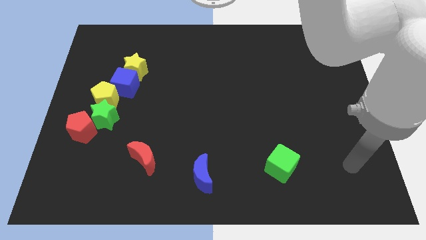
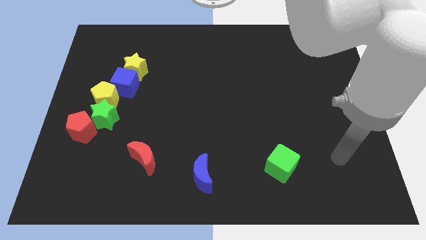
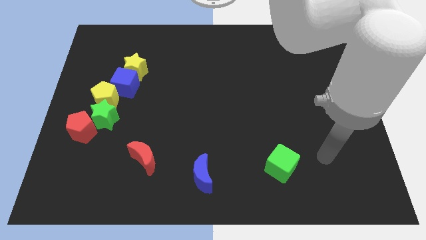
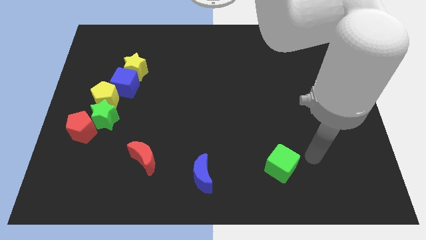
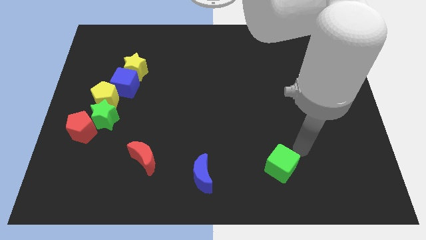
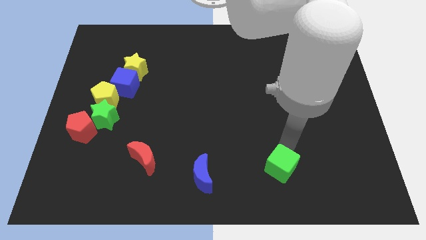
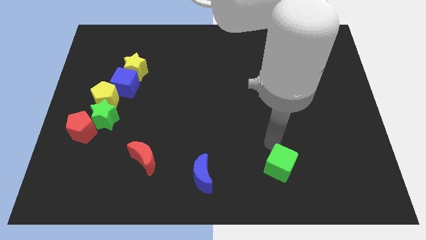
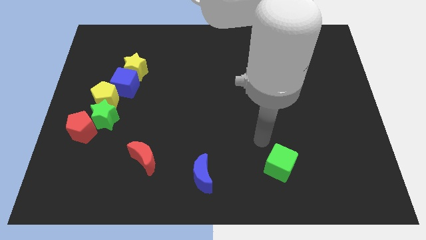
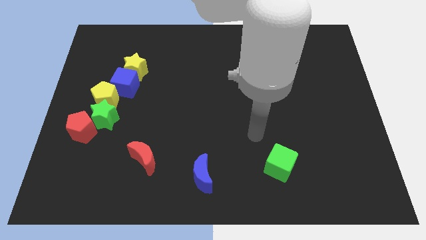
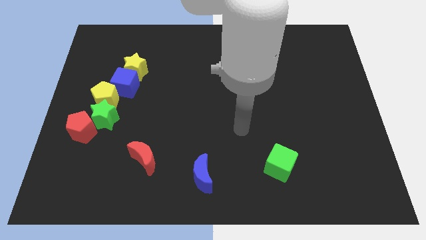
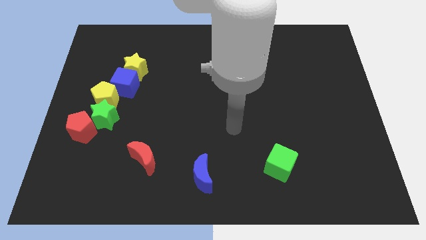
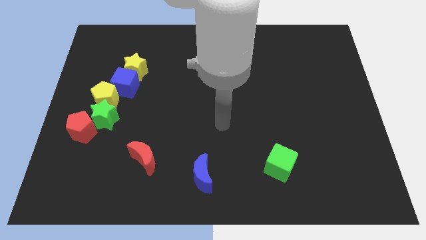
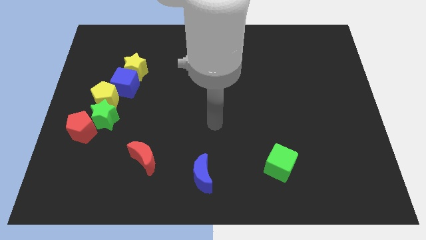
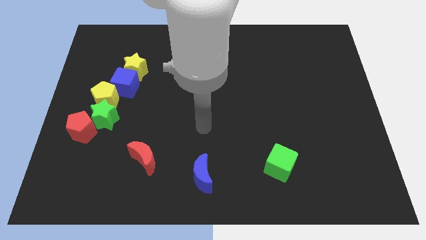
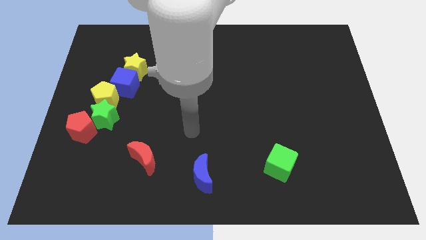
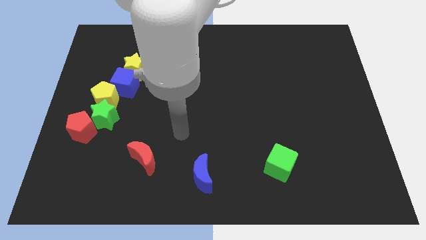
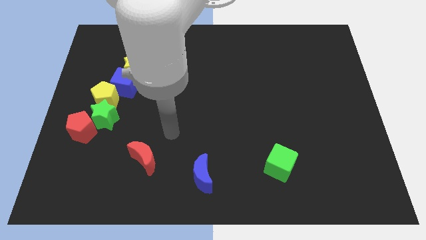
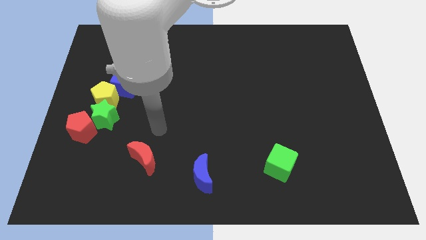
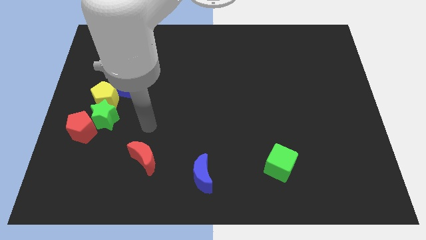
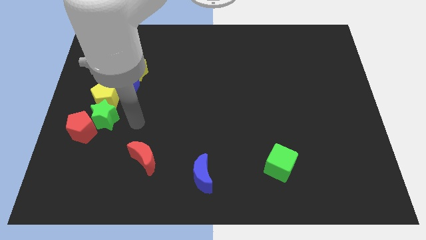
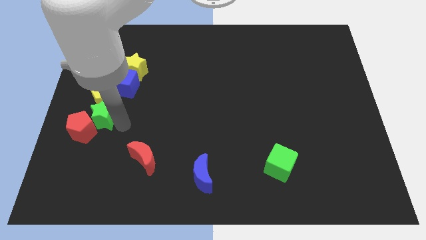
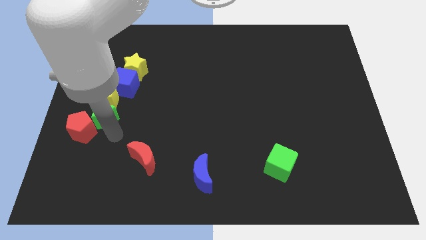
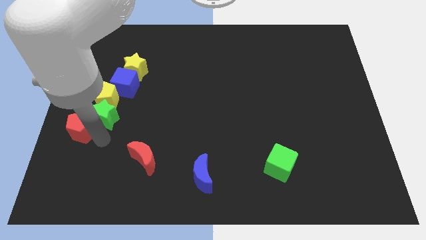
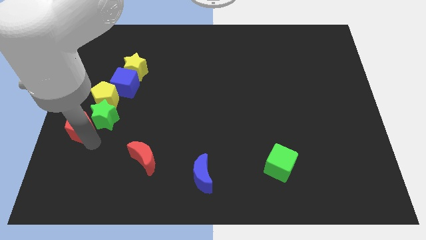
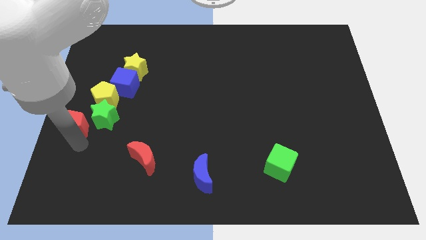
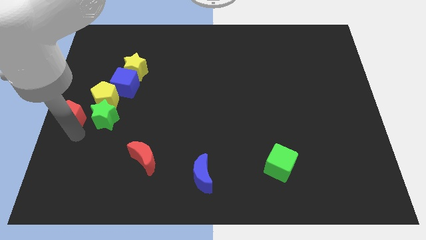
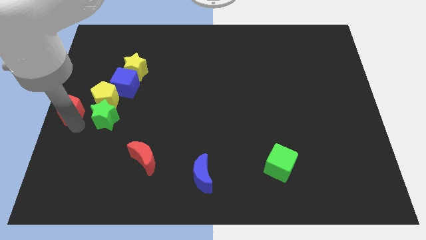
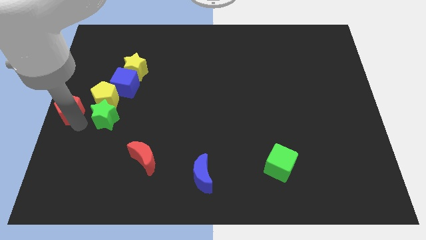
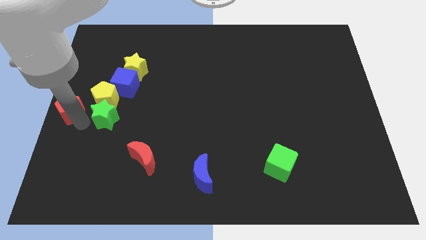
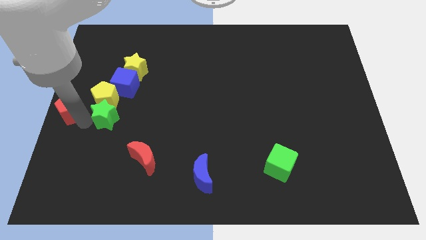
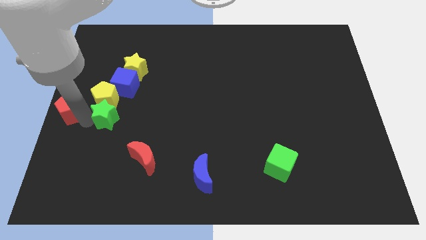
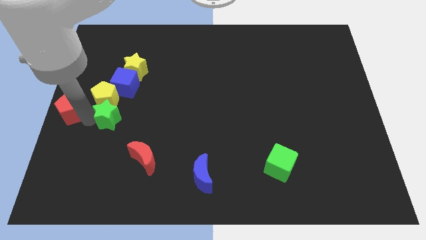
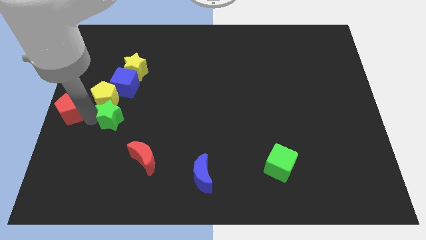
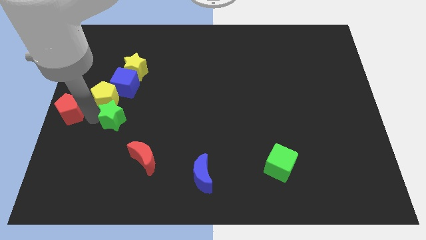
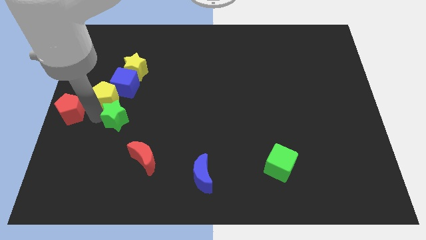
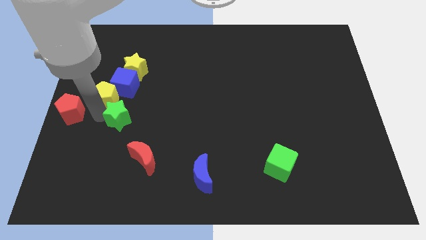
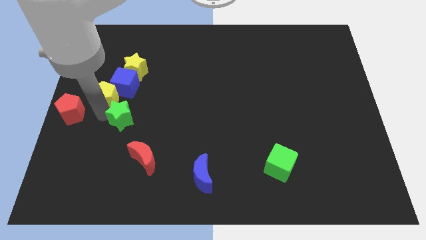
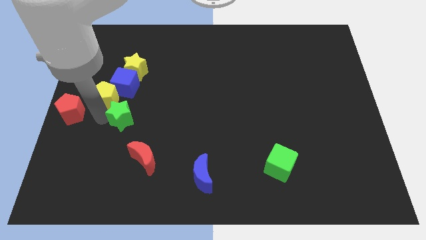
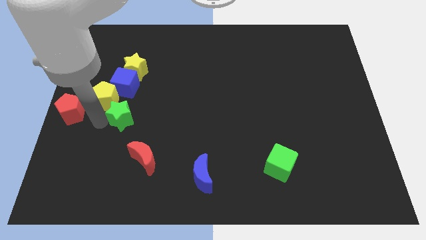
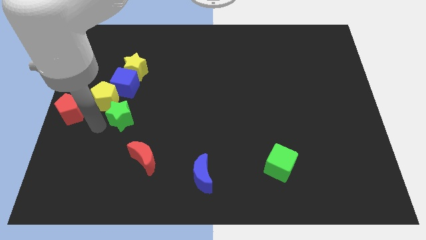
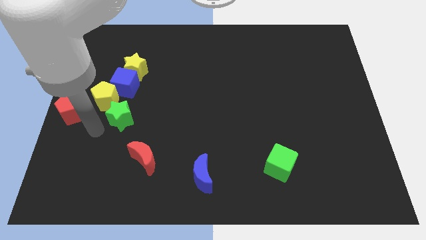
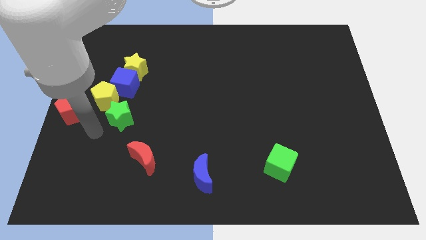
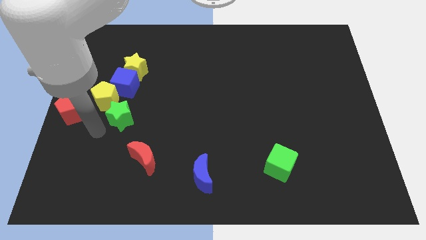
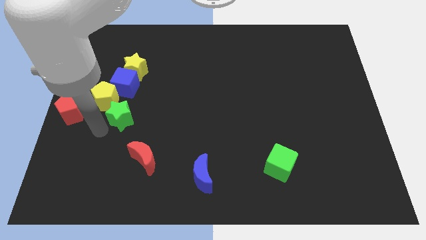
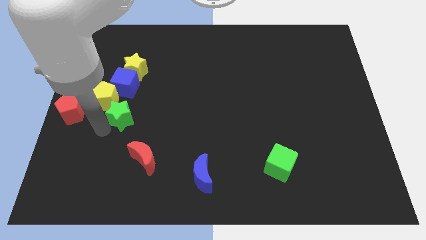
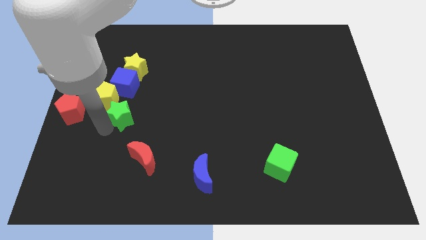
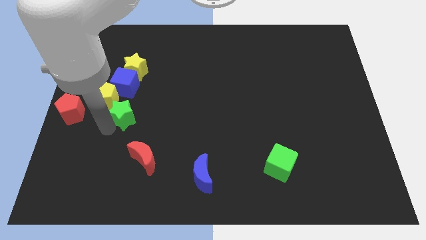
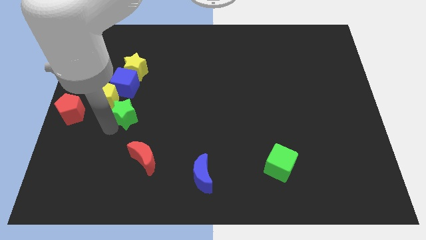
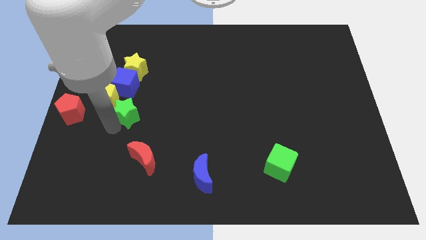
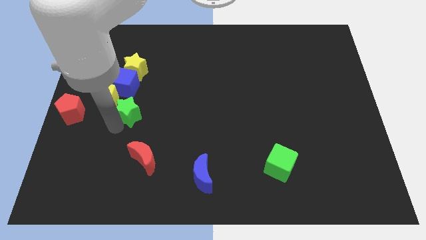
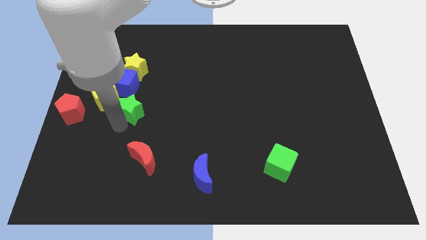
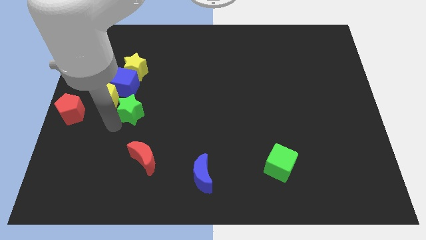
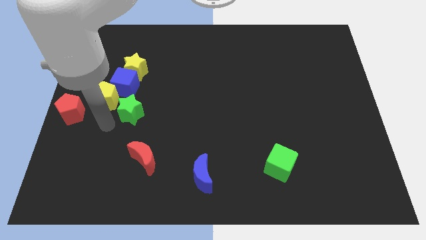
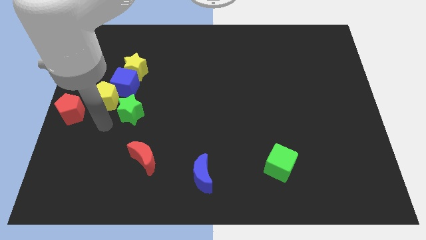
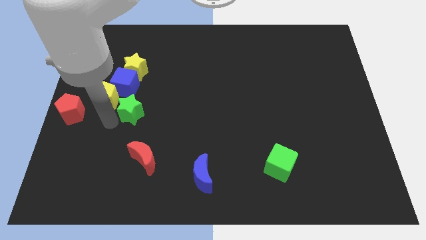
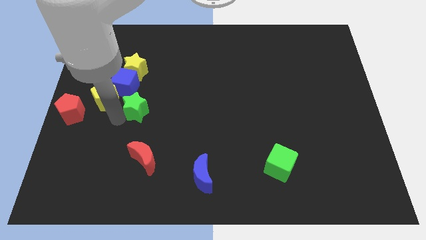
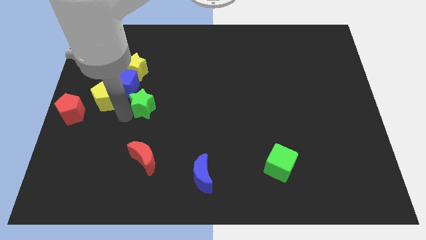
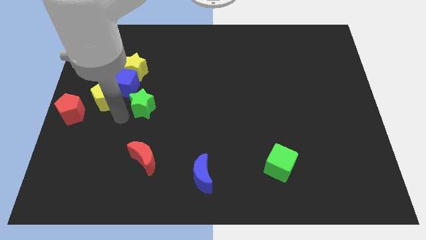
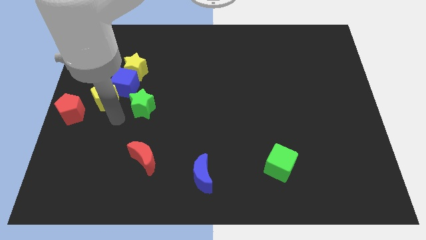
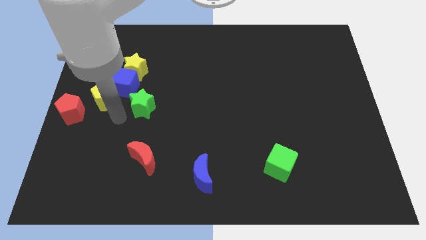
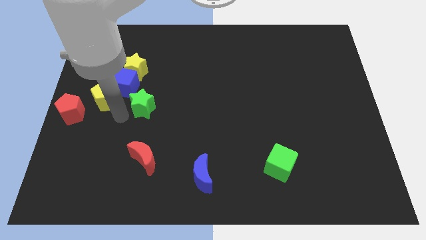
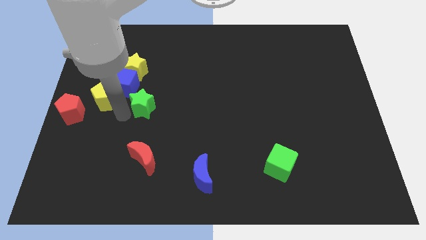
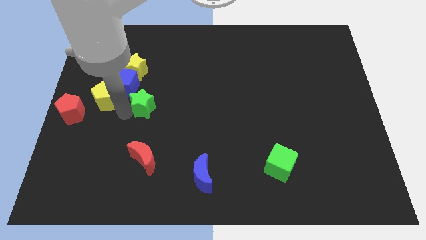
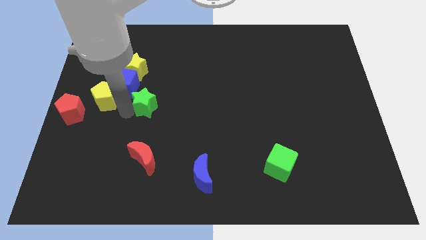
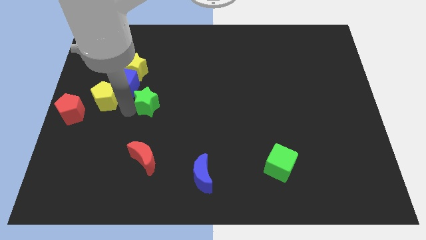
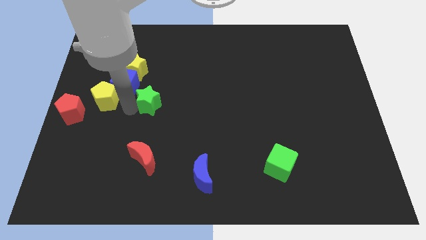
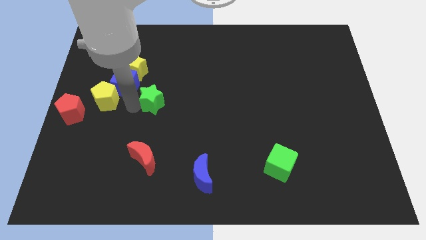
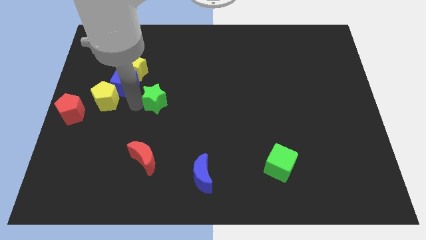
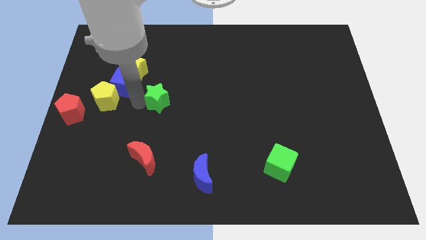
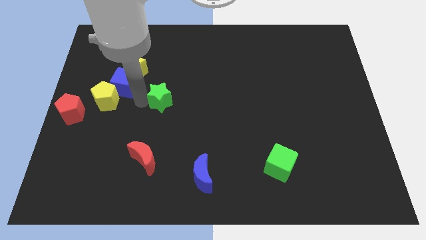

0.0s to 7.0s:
slide the green star to the center
